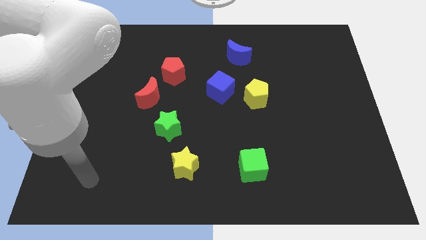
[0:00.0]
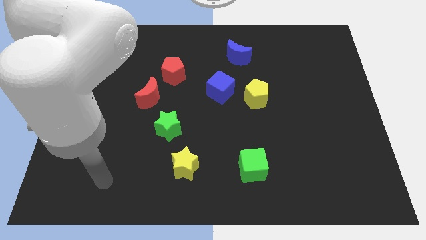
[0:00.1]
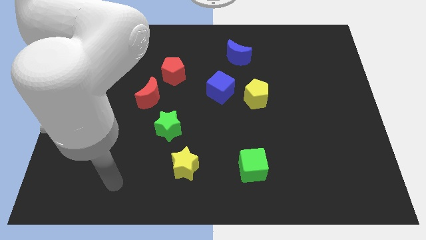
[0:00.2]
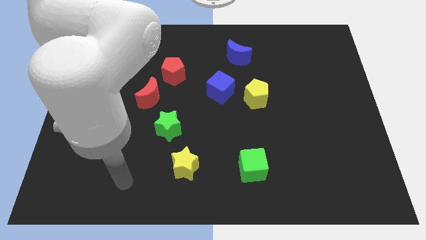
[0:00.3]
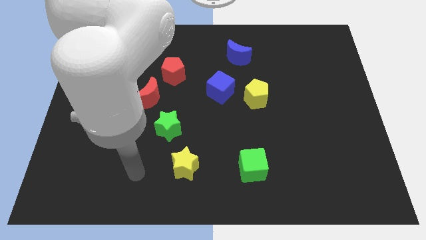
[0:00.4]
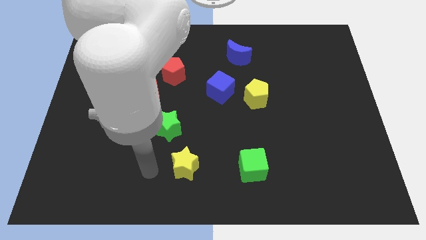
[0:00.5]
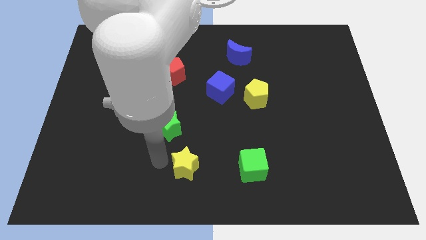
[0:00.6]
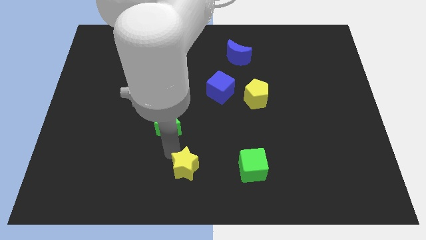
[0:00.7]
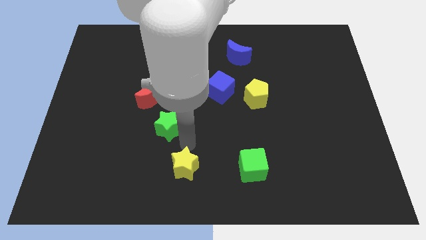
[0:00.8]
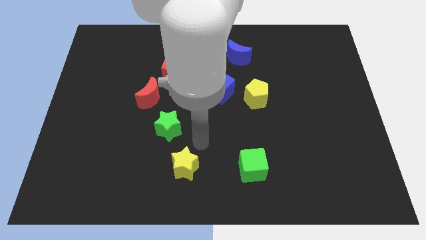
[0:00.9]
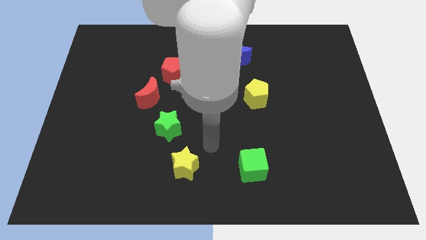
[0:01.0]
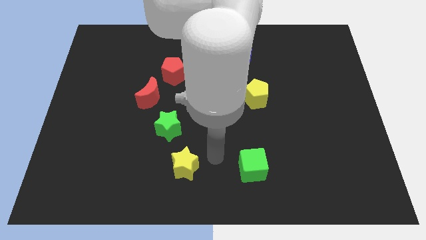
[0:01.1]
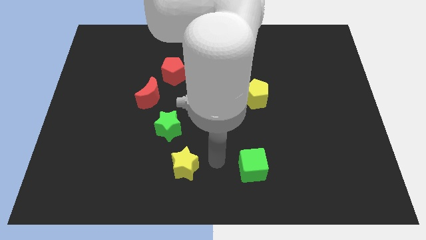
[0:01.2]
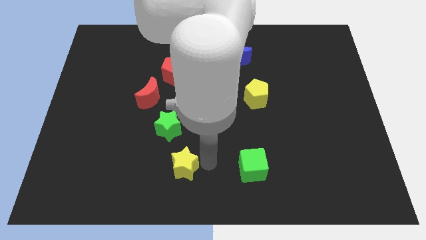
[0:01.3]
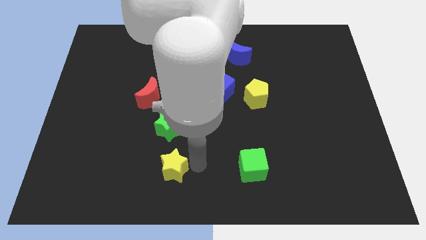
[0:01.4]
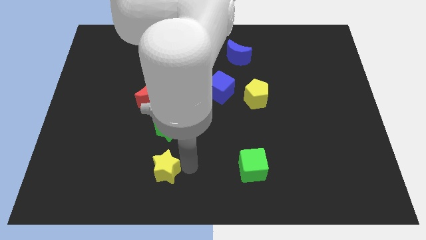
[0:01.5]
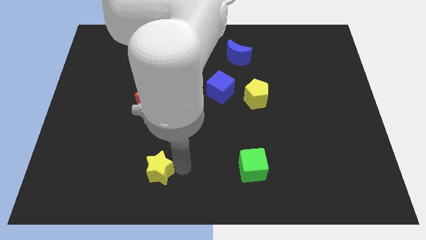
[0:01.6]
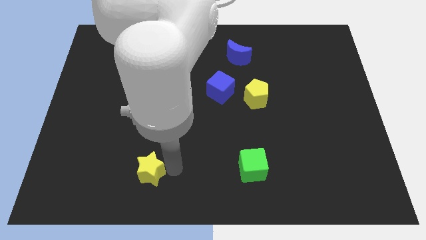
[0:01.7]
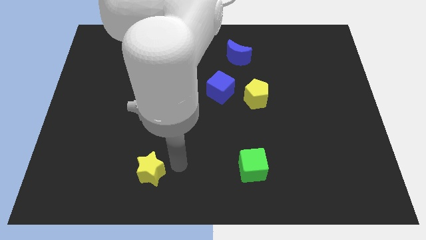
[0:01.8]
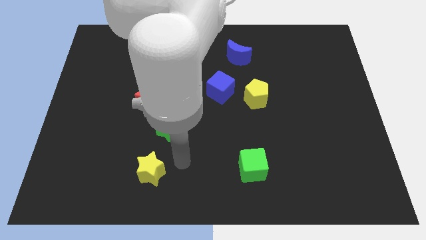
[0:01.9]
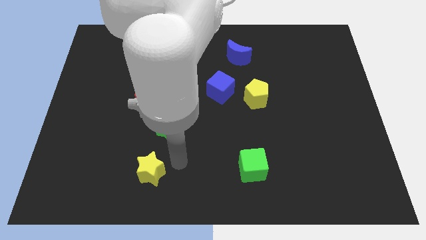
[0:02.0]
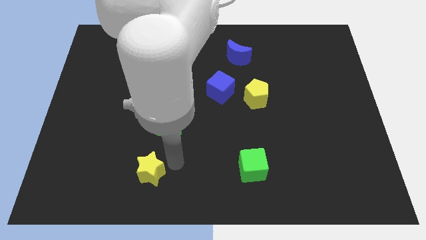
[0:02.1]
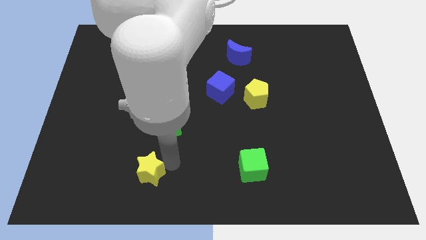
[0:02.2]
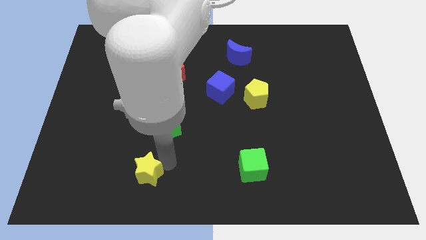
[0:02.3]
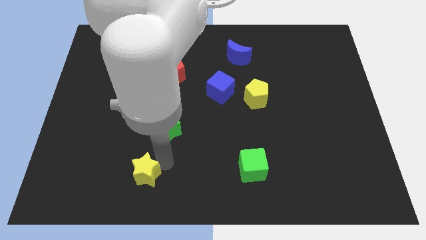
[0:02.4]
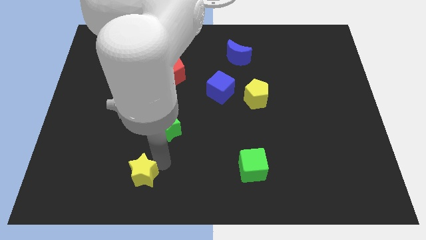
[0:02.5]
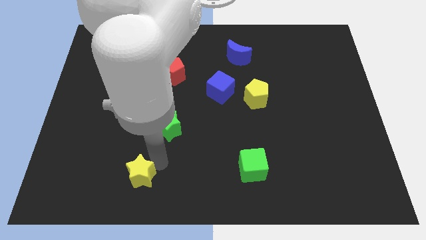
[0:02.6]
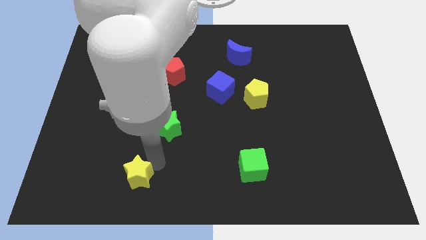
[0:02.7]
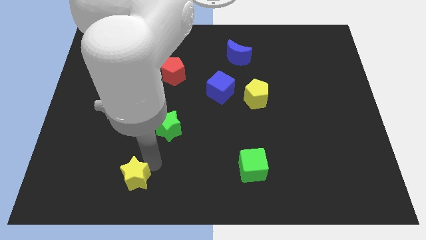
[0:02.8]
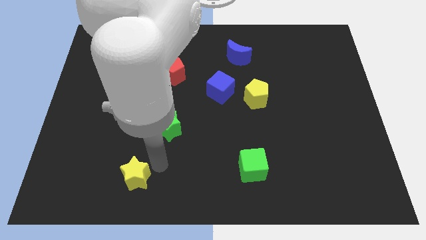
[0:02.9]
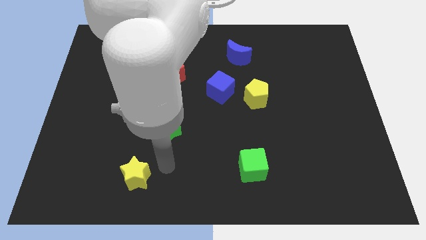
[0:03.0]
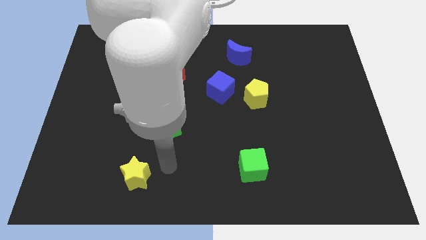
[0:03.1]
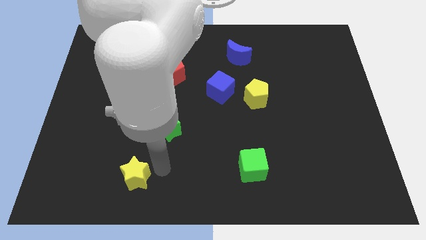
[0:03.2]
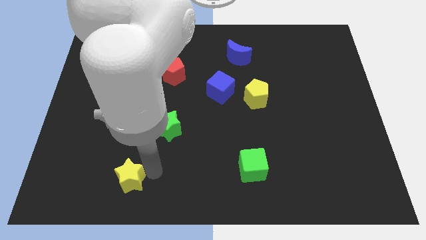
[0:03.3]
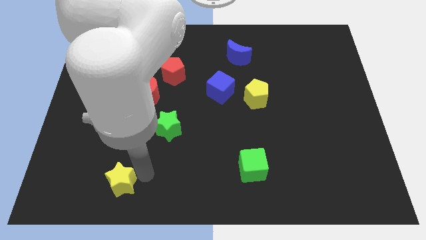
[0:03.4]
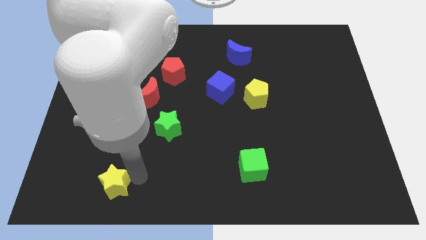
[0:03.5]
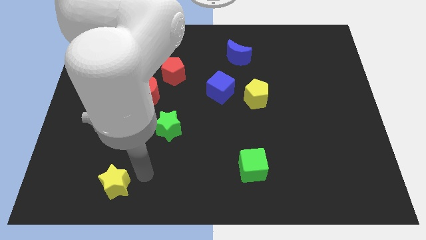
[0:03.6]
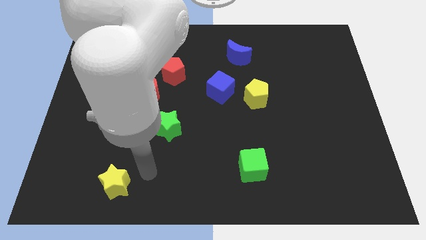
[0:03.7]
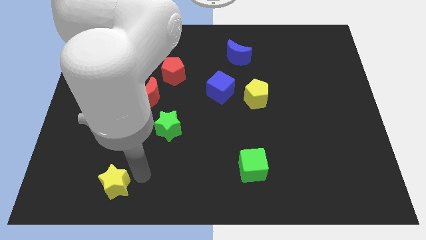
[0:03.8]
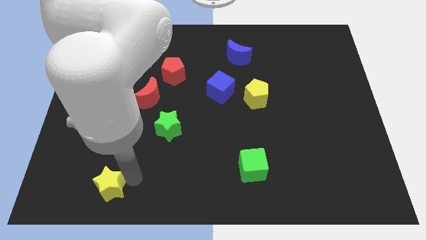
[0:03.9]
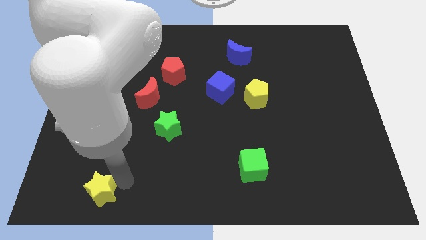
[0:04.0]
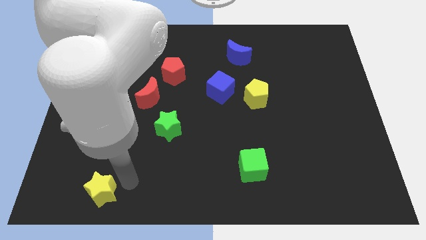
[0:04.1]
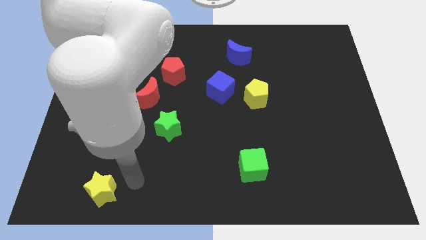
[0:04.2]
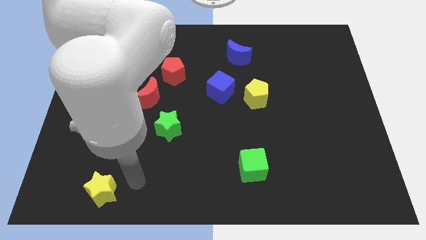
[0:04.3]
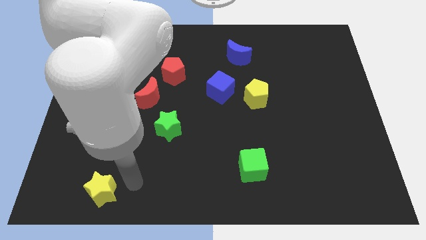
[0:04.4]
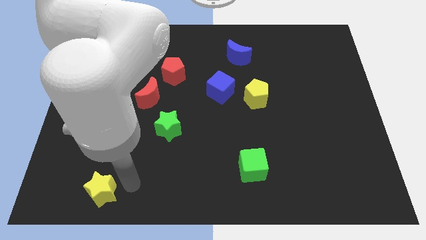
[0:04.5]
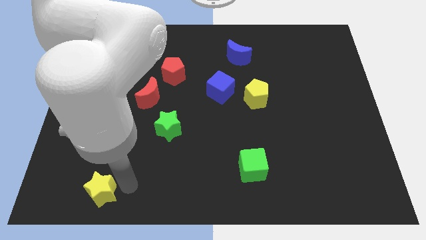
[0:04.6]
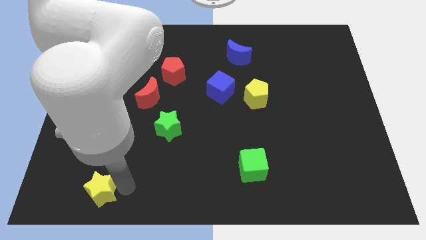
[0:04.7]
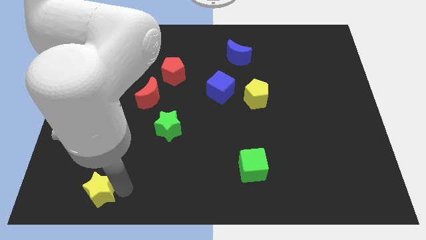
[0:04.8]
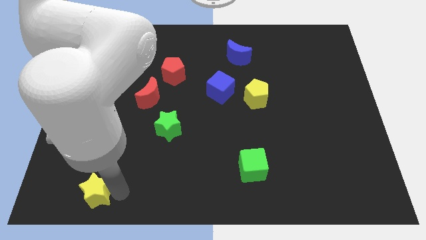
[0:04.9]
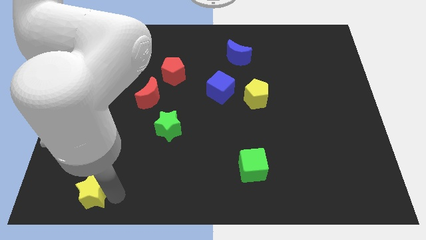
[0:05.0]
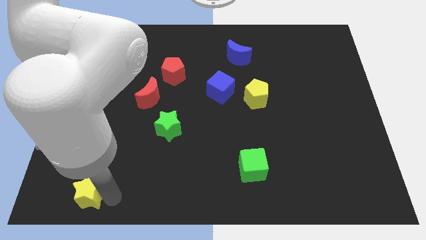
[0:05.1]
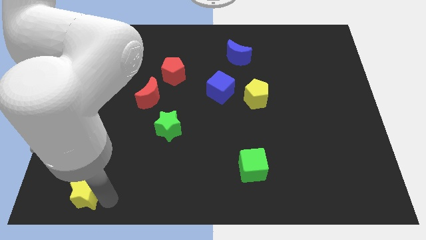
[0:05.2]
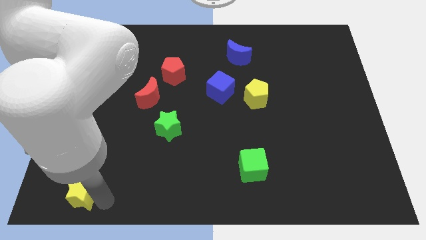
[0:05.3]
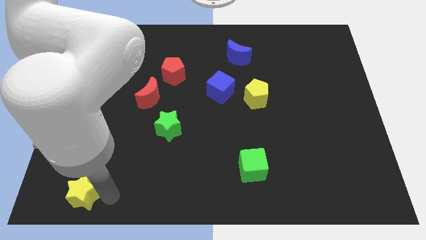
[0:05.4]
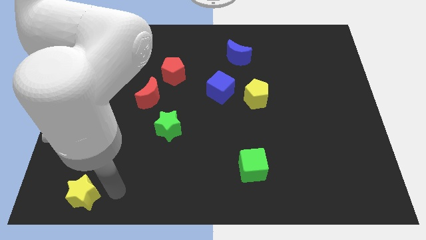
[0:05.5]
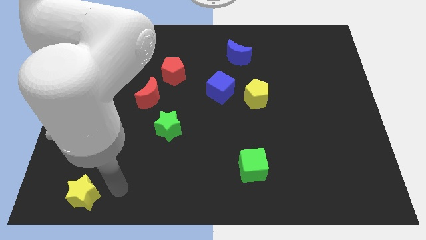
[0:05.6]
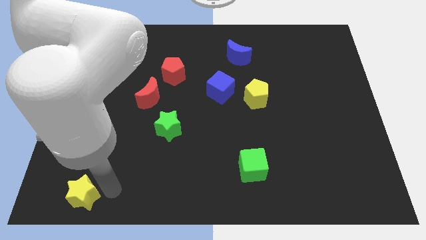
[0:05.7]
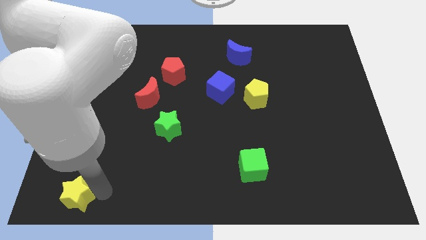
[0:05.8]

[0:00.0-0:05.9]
push the yellow star to the bottom left of the board

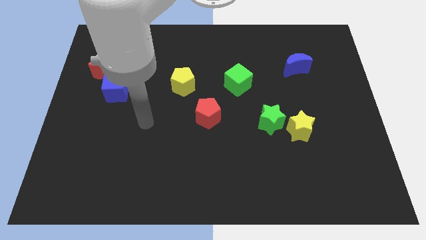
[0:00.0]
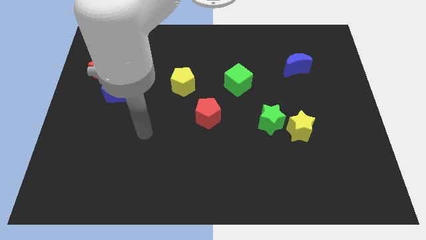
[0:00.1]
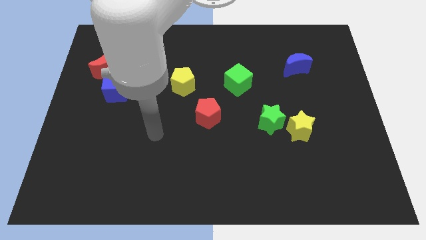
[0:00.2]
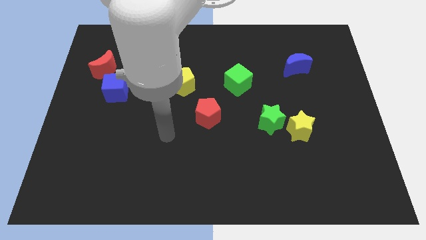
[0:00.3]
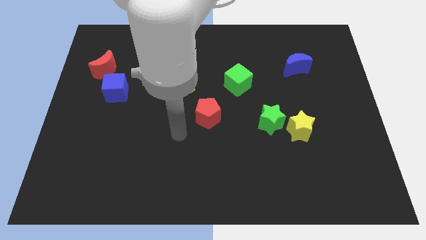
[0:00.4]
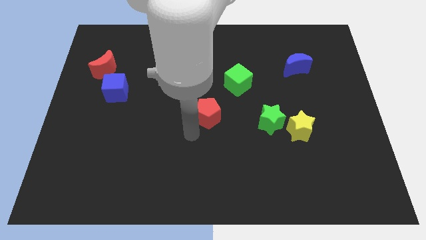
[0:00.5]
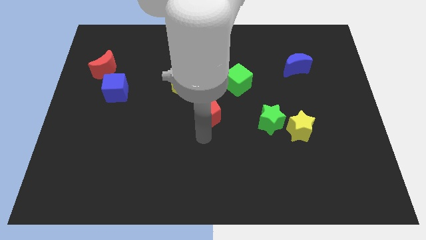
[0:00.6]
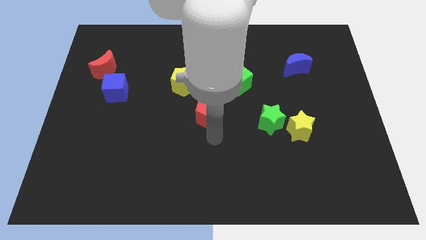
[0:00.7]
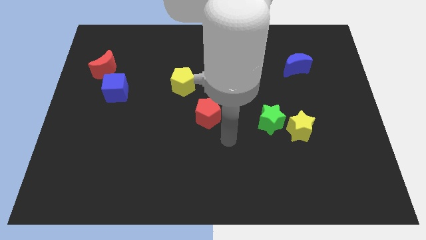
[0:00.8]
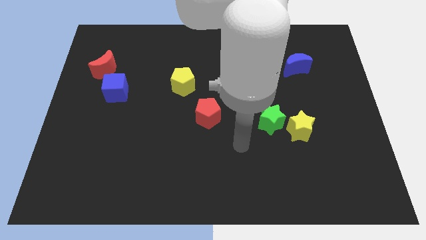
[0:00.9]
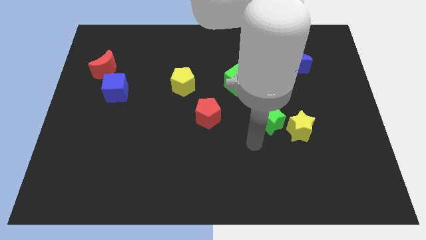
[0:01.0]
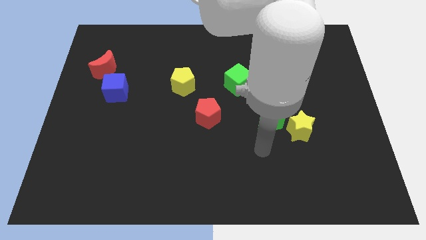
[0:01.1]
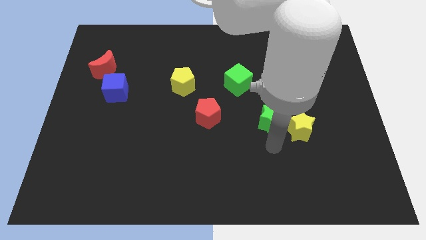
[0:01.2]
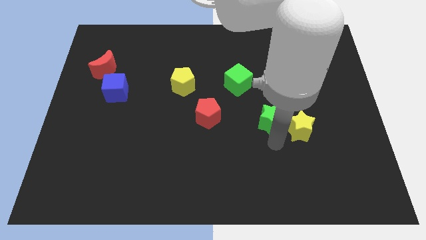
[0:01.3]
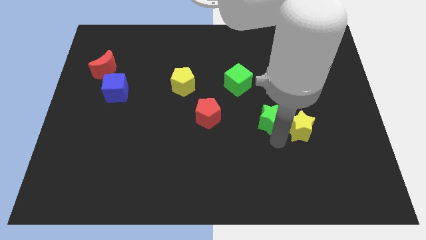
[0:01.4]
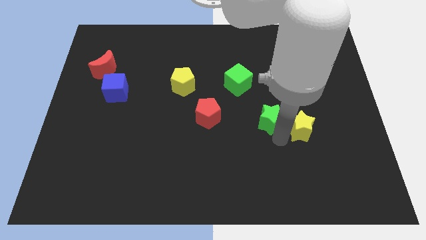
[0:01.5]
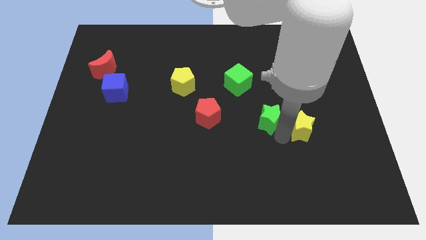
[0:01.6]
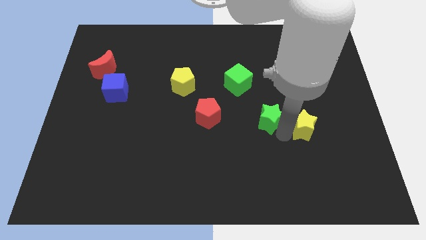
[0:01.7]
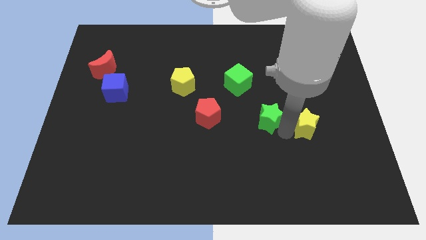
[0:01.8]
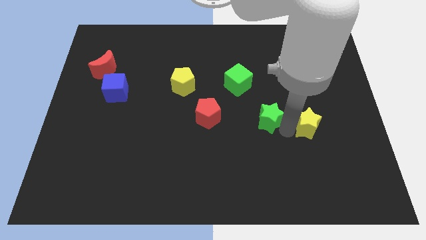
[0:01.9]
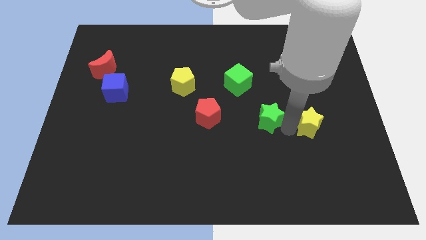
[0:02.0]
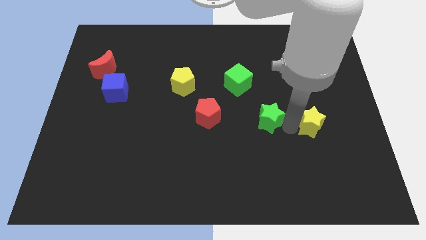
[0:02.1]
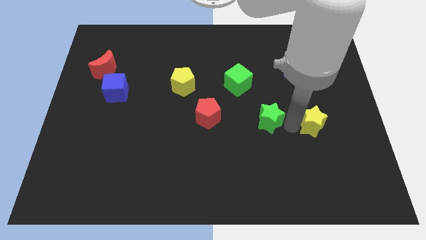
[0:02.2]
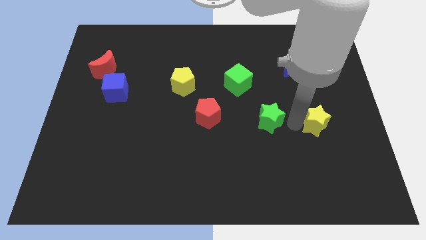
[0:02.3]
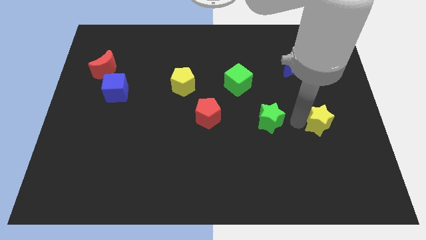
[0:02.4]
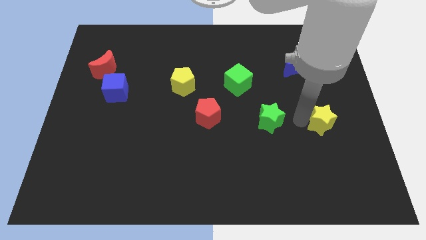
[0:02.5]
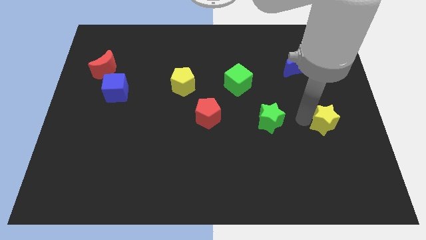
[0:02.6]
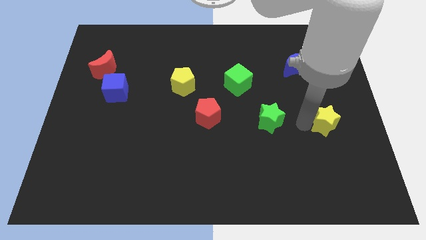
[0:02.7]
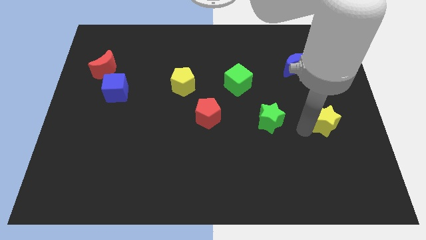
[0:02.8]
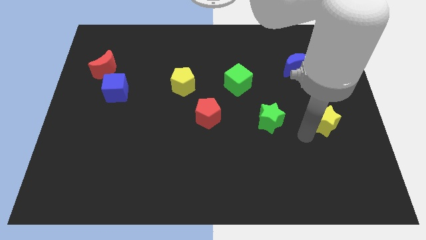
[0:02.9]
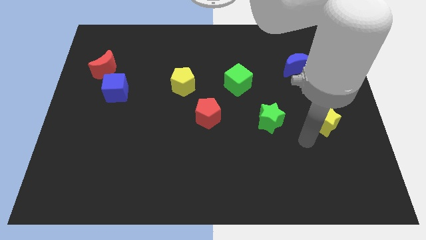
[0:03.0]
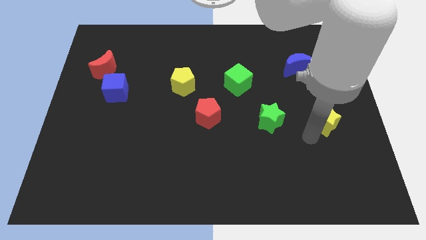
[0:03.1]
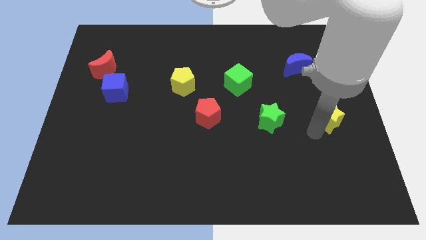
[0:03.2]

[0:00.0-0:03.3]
move the yellow star to the right side of the board
